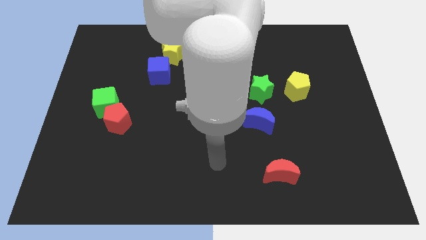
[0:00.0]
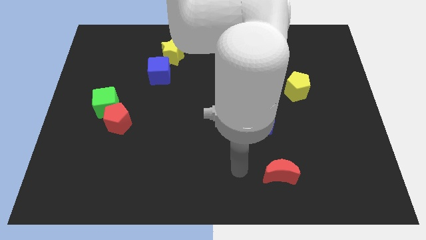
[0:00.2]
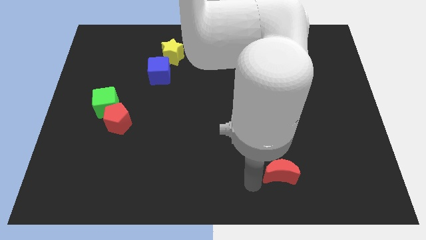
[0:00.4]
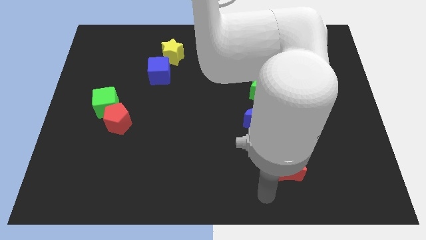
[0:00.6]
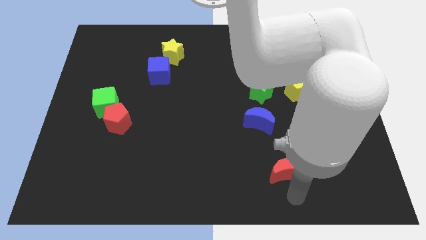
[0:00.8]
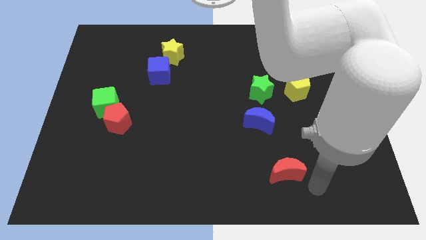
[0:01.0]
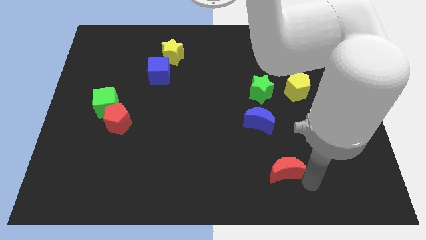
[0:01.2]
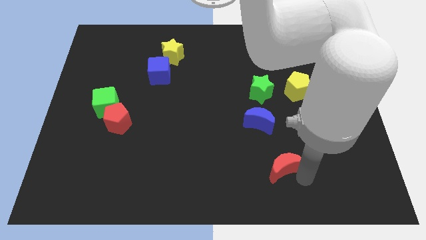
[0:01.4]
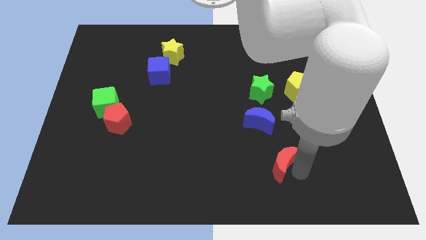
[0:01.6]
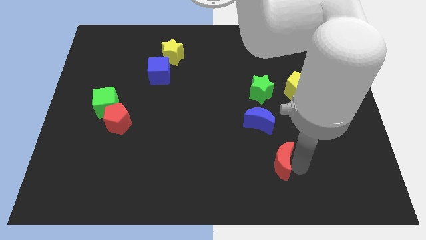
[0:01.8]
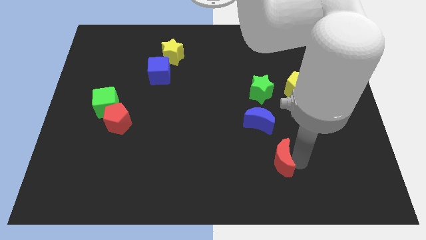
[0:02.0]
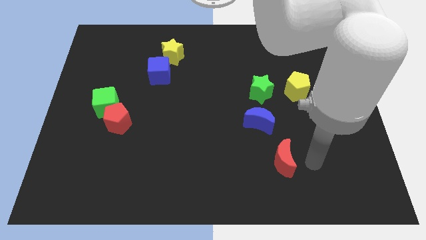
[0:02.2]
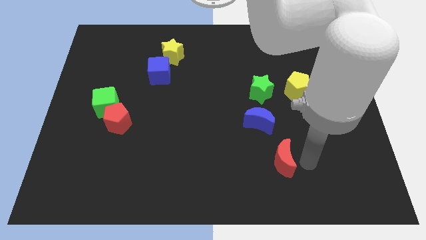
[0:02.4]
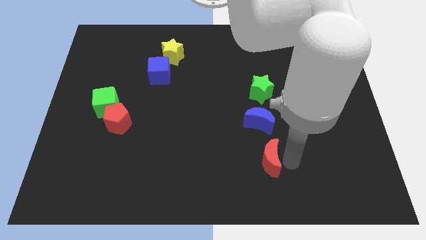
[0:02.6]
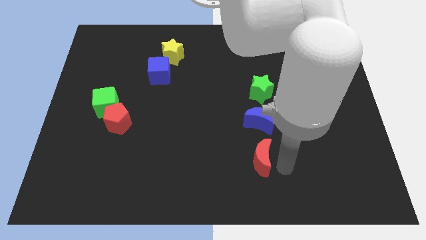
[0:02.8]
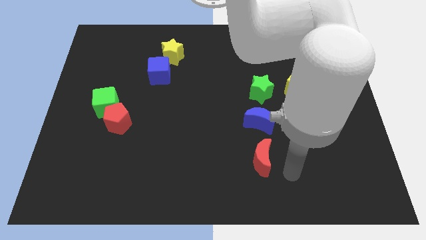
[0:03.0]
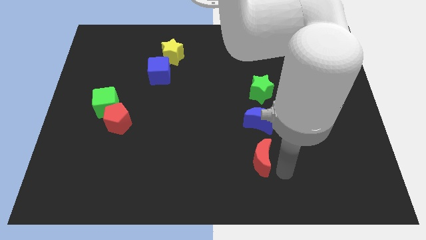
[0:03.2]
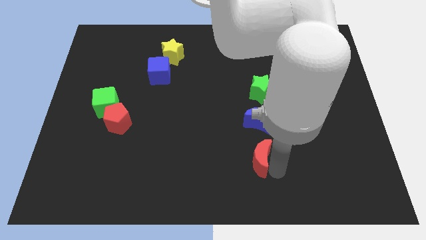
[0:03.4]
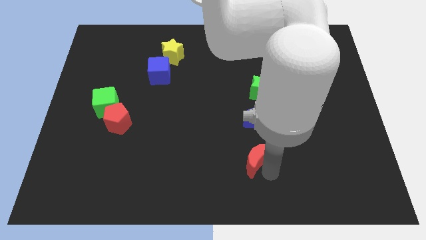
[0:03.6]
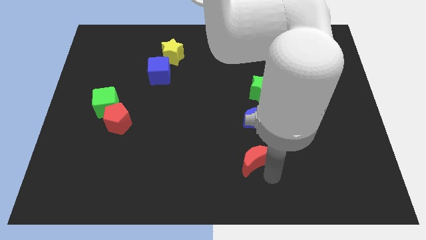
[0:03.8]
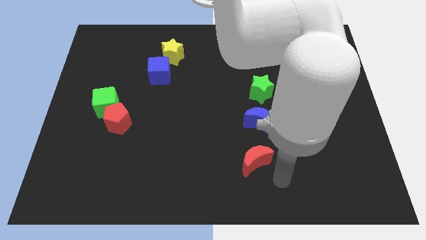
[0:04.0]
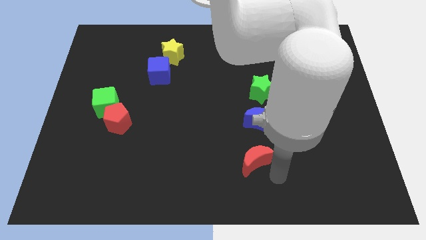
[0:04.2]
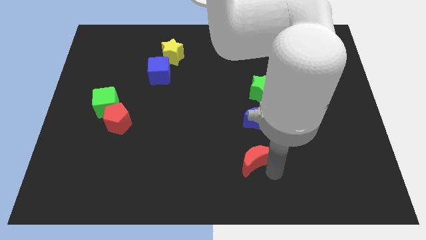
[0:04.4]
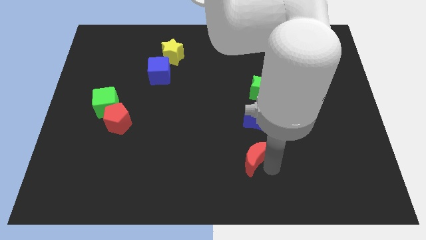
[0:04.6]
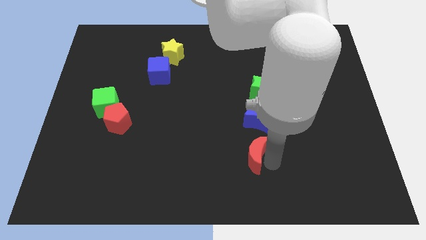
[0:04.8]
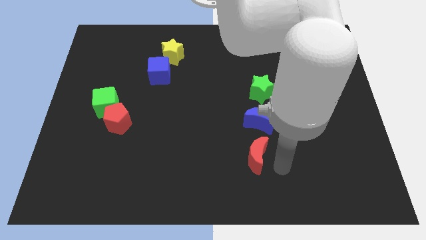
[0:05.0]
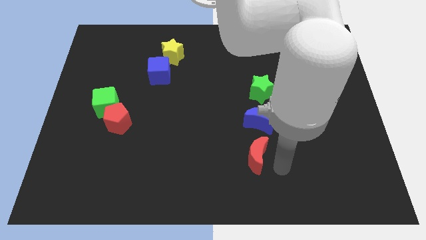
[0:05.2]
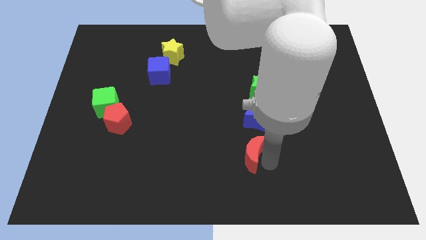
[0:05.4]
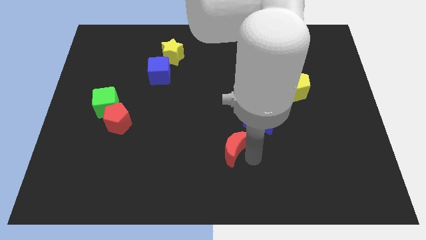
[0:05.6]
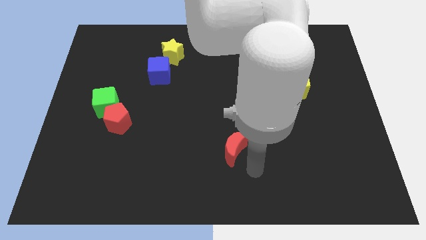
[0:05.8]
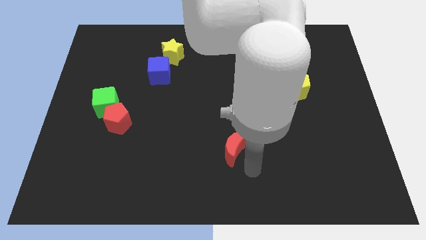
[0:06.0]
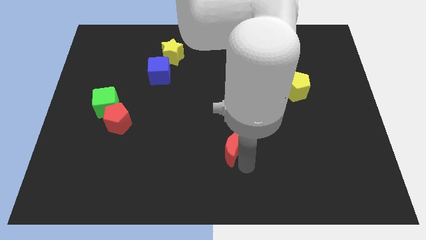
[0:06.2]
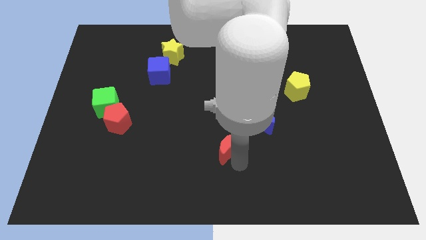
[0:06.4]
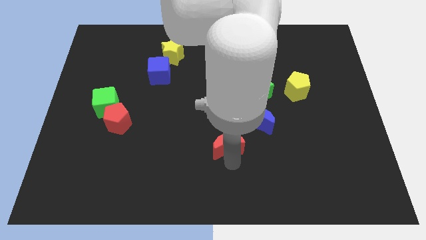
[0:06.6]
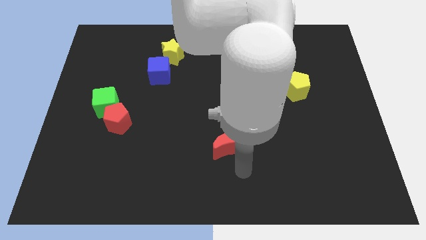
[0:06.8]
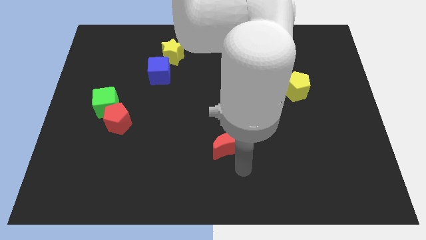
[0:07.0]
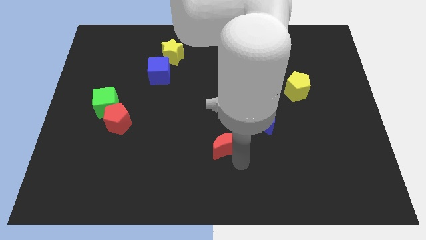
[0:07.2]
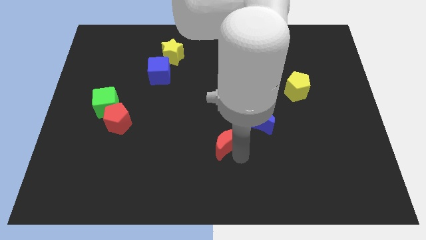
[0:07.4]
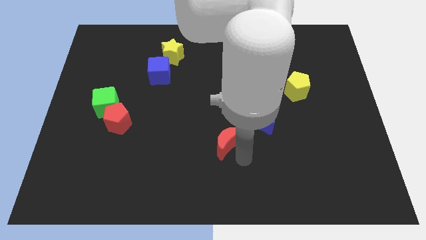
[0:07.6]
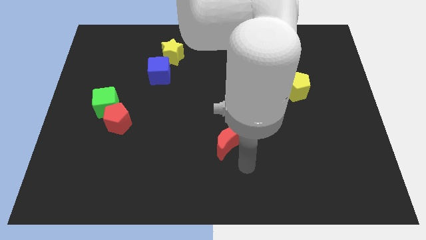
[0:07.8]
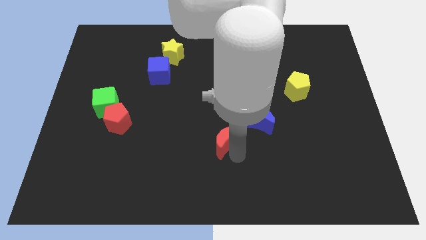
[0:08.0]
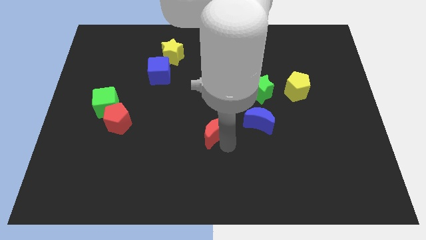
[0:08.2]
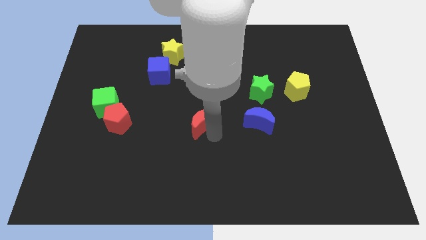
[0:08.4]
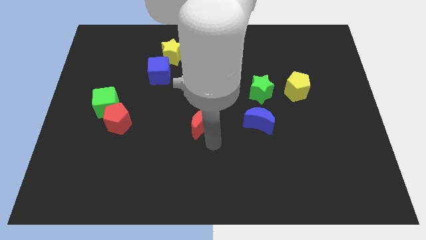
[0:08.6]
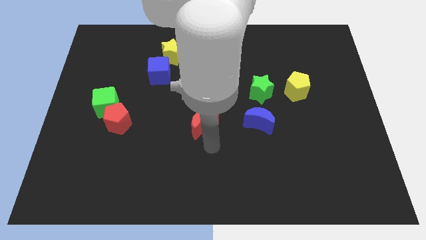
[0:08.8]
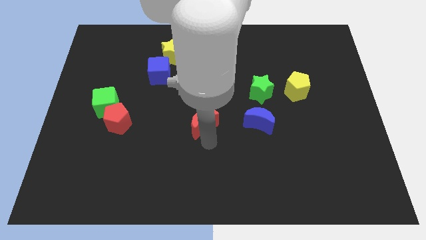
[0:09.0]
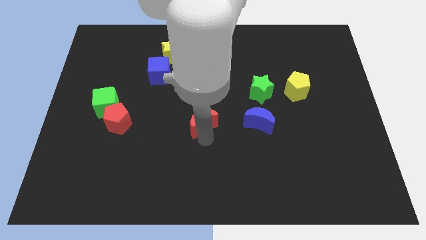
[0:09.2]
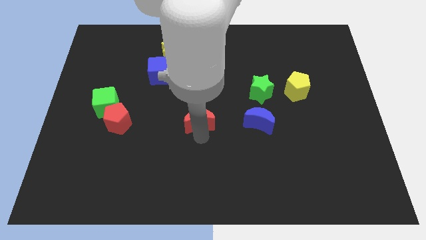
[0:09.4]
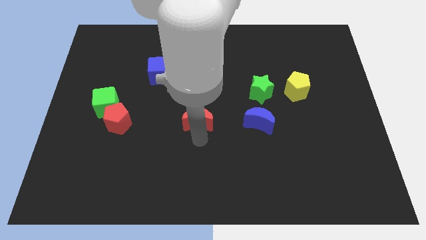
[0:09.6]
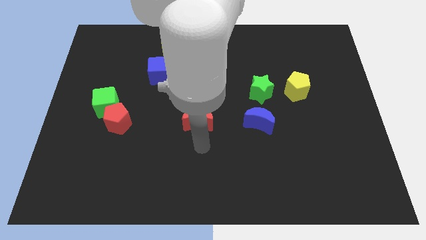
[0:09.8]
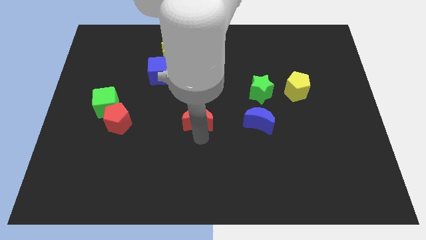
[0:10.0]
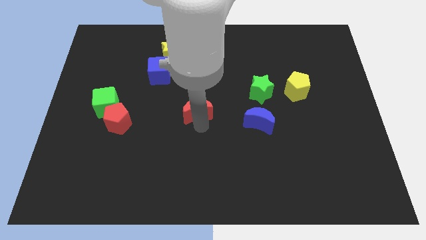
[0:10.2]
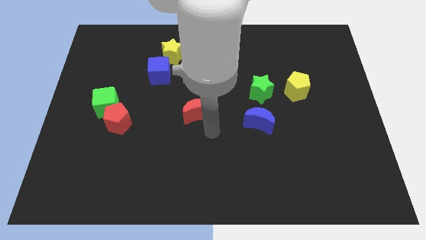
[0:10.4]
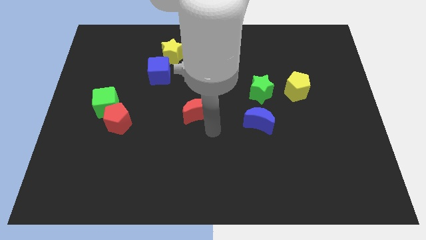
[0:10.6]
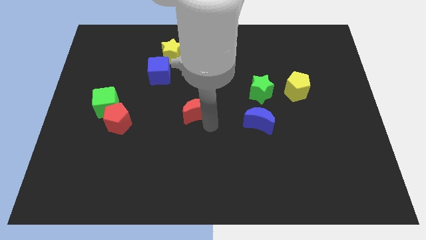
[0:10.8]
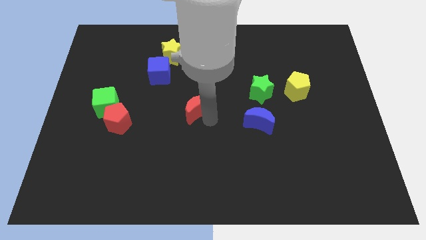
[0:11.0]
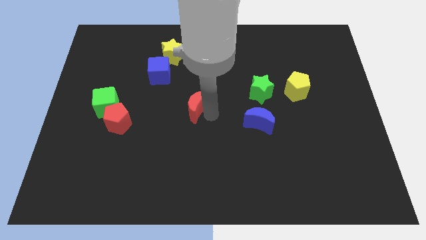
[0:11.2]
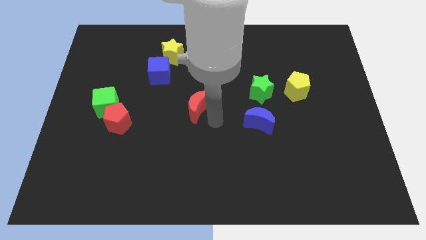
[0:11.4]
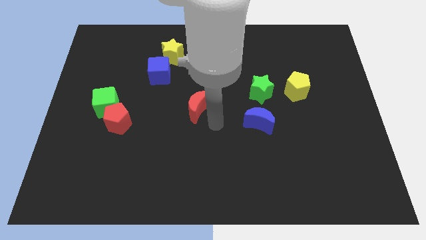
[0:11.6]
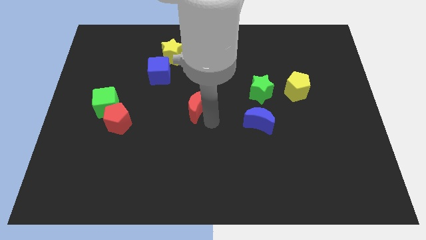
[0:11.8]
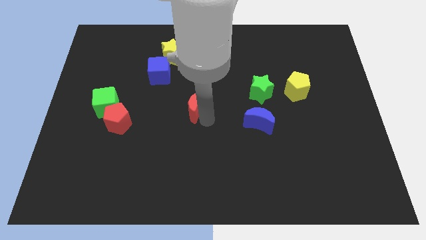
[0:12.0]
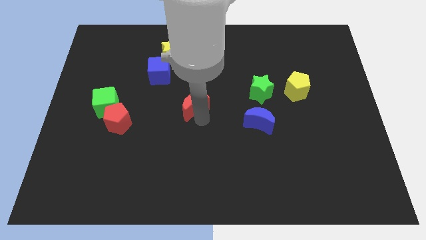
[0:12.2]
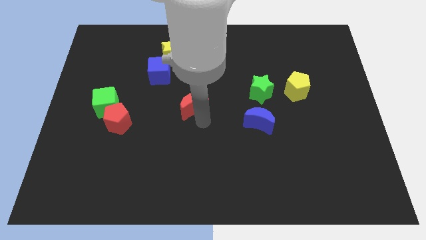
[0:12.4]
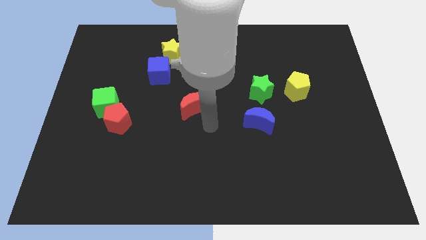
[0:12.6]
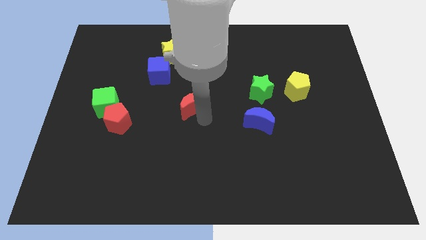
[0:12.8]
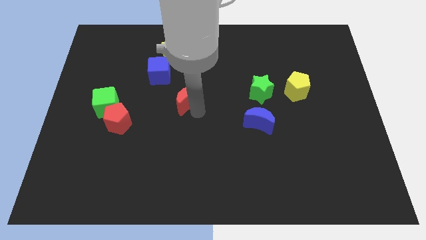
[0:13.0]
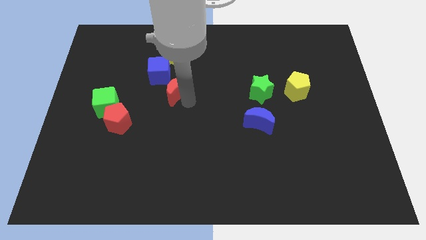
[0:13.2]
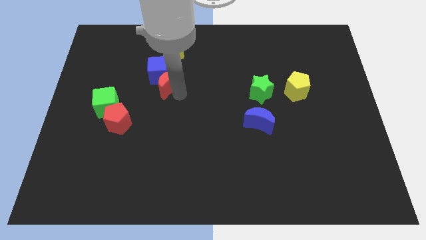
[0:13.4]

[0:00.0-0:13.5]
move the red moon to the blue cube
